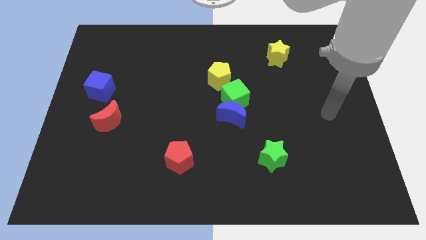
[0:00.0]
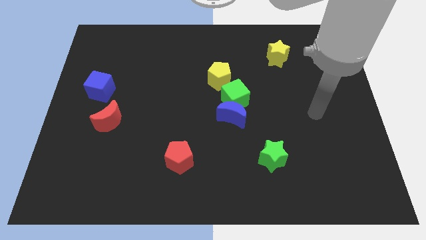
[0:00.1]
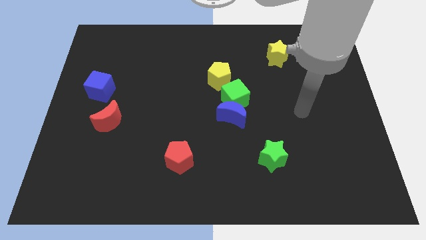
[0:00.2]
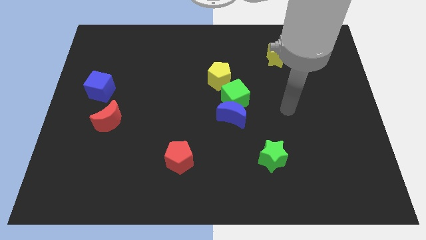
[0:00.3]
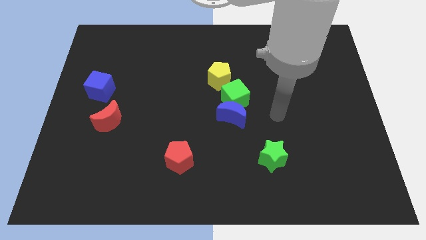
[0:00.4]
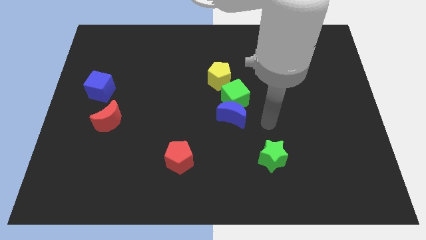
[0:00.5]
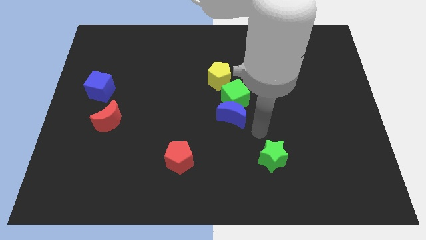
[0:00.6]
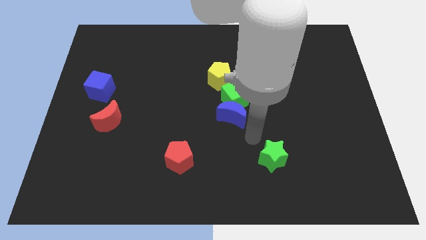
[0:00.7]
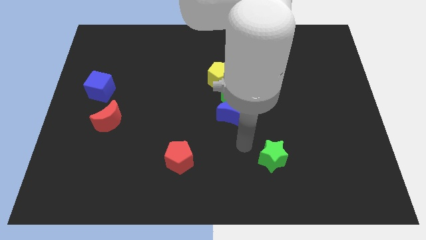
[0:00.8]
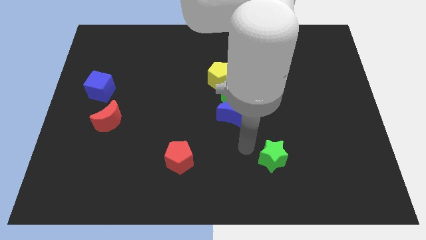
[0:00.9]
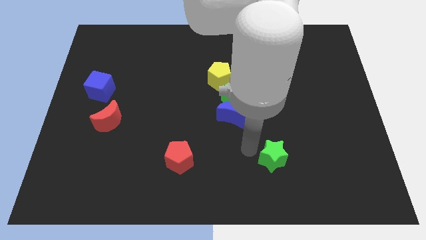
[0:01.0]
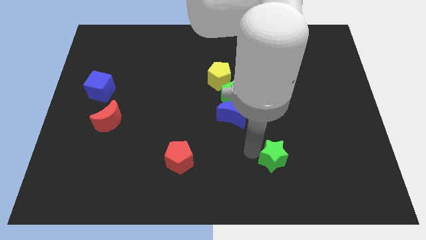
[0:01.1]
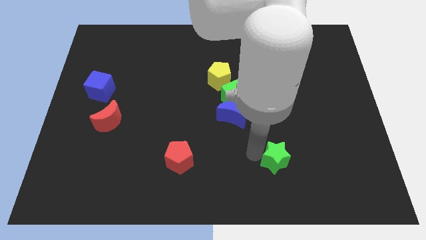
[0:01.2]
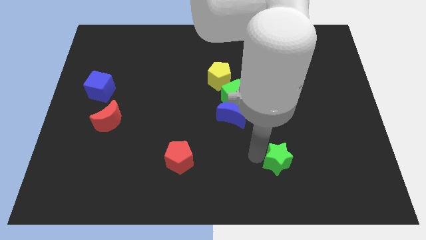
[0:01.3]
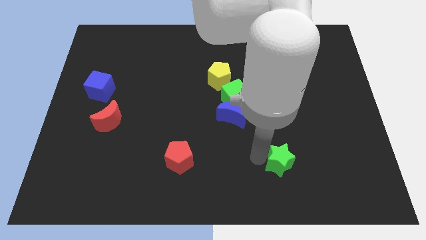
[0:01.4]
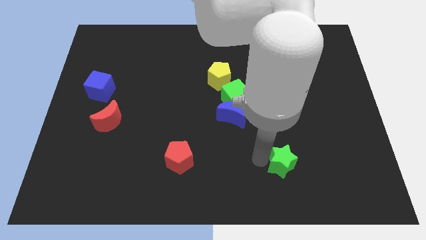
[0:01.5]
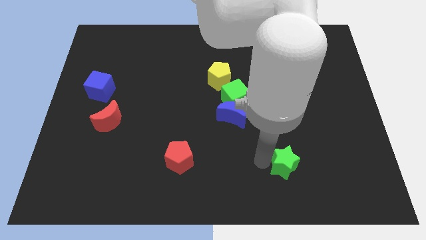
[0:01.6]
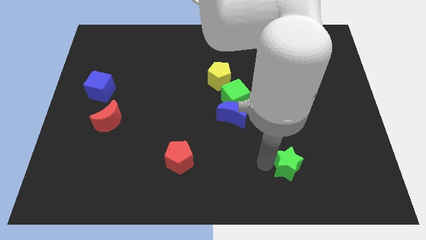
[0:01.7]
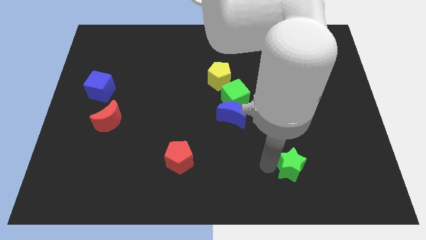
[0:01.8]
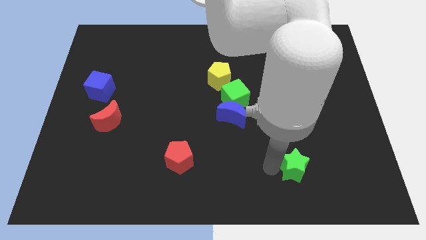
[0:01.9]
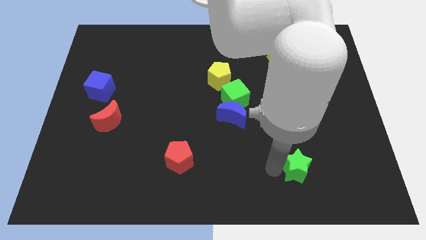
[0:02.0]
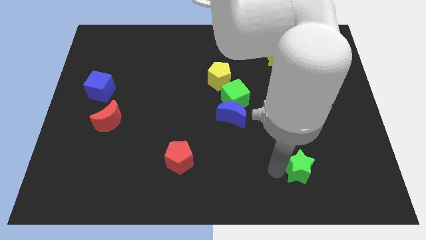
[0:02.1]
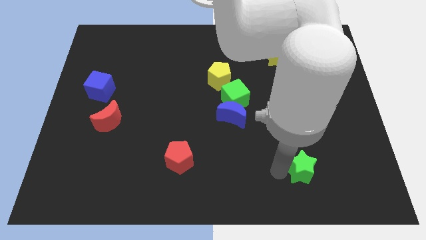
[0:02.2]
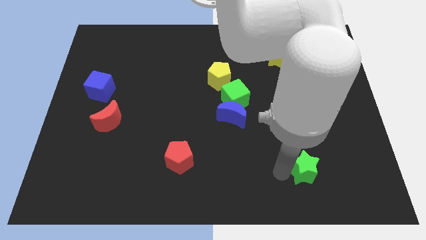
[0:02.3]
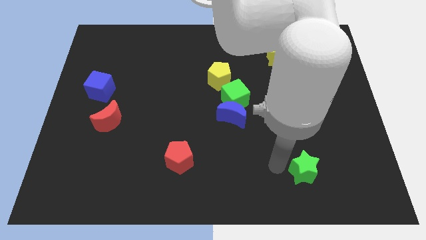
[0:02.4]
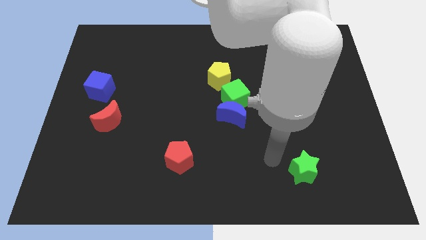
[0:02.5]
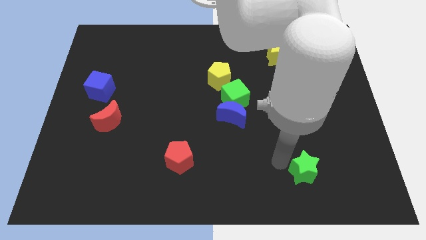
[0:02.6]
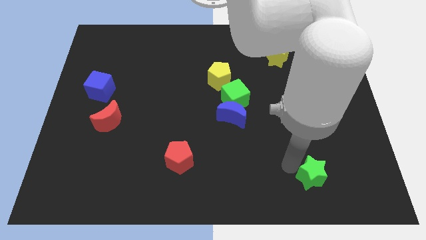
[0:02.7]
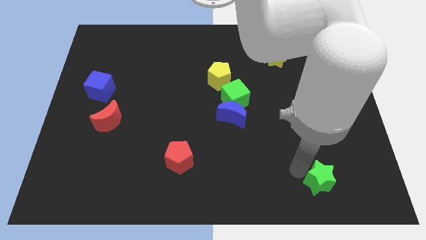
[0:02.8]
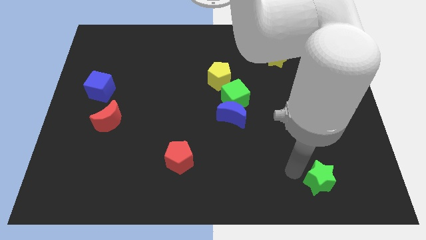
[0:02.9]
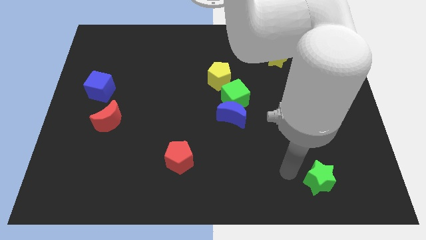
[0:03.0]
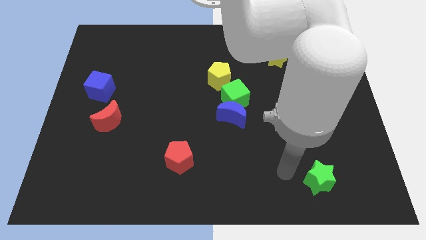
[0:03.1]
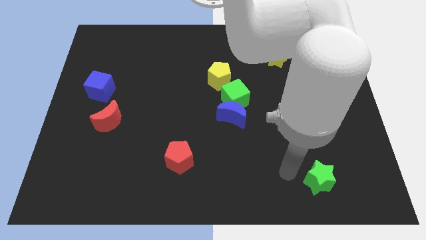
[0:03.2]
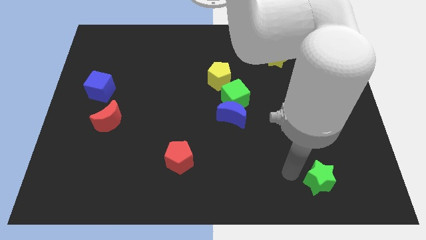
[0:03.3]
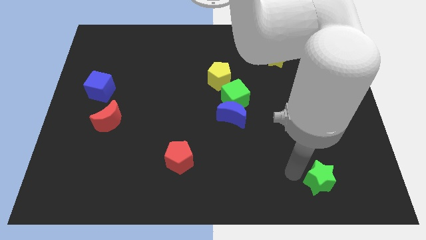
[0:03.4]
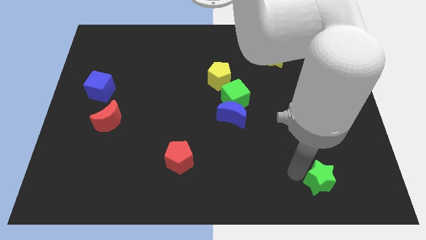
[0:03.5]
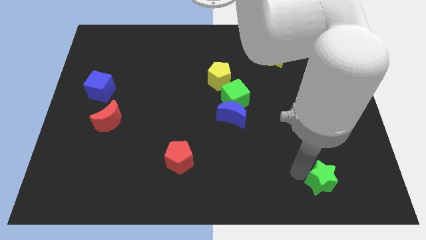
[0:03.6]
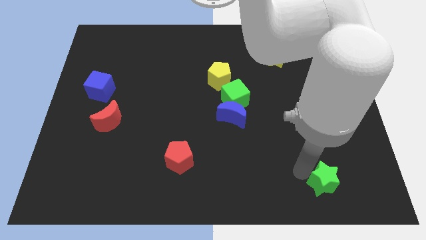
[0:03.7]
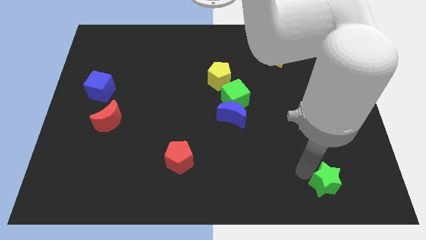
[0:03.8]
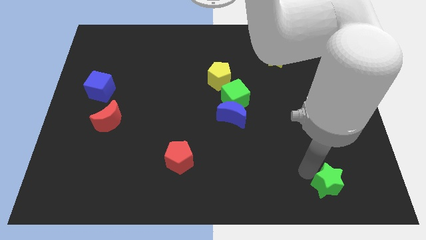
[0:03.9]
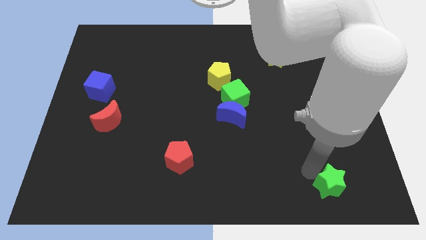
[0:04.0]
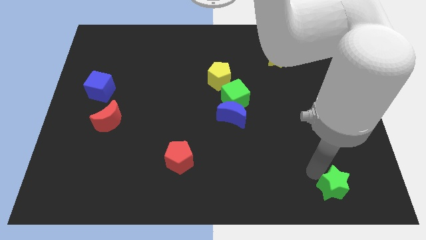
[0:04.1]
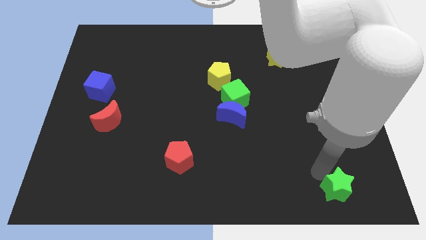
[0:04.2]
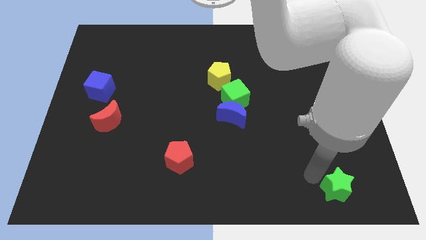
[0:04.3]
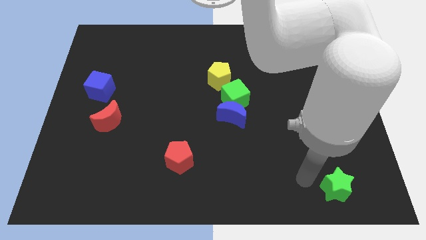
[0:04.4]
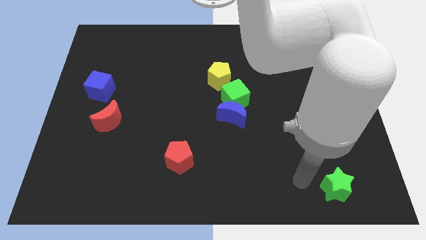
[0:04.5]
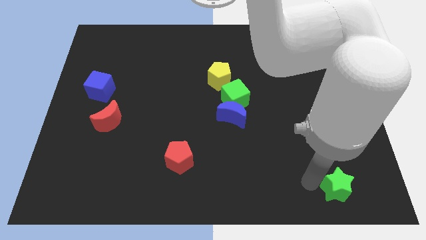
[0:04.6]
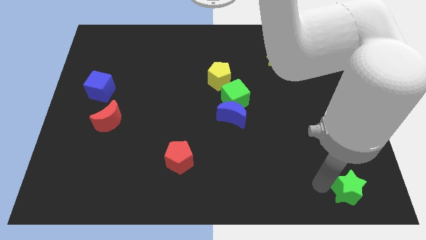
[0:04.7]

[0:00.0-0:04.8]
move the green star to the lower right corner

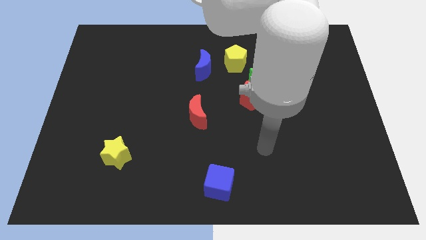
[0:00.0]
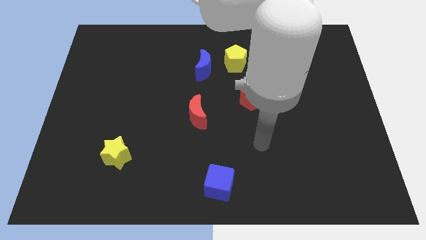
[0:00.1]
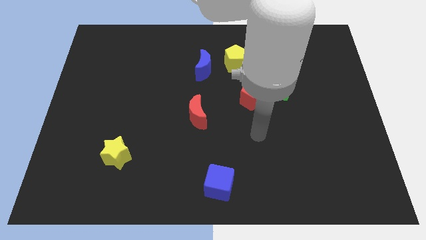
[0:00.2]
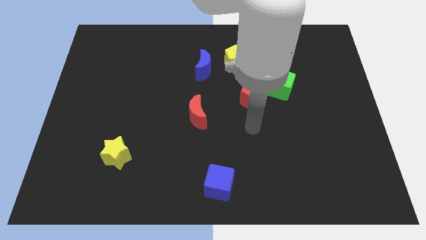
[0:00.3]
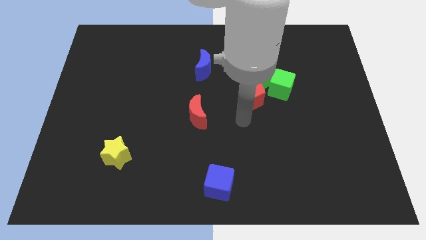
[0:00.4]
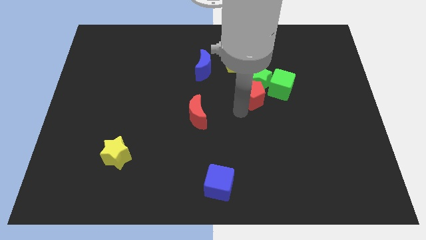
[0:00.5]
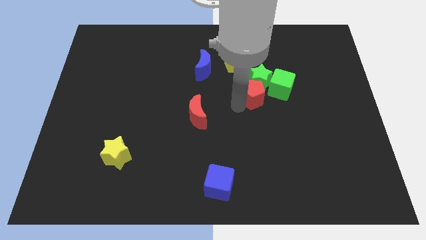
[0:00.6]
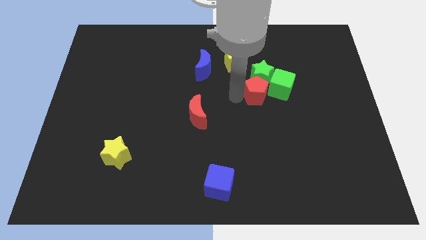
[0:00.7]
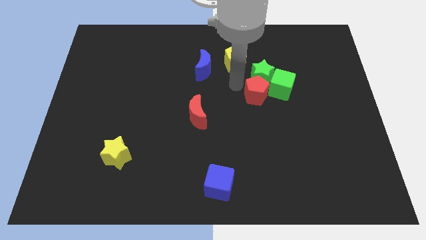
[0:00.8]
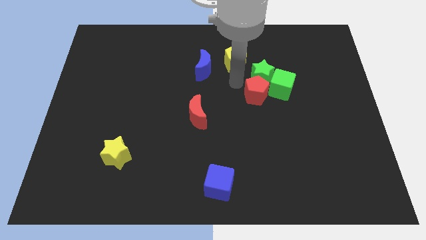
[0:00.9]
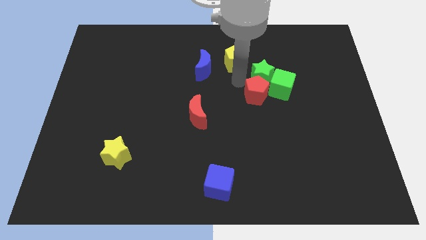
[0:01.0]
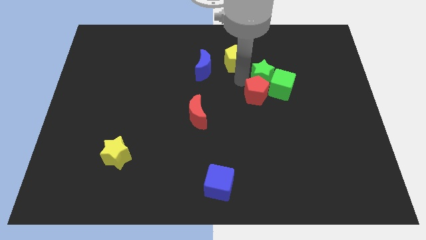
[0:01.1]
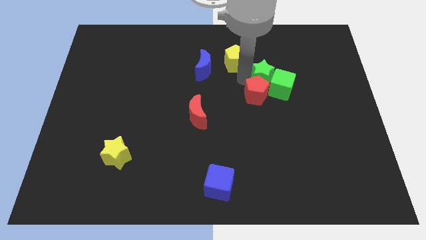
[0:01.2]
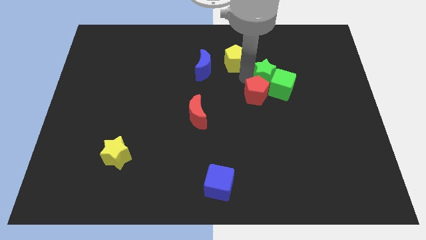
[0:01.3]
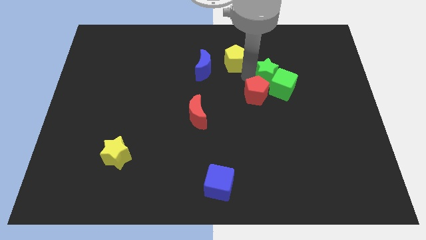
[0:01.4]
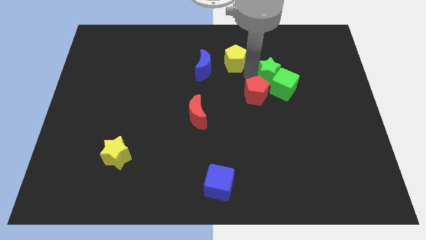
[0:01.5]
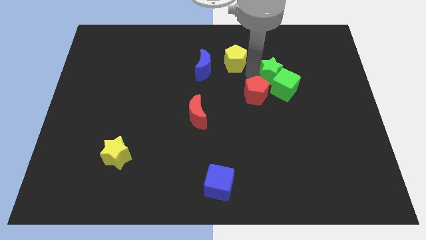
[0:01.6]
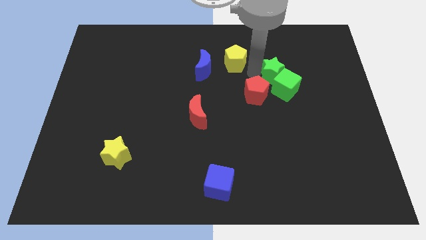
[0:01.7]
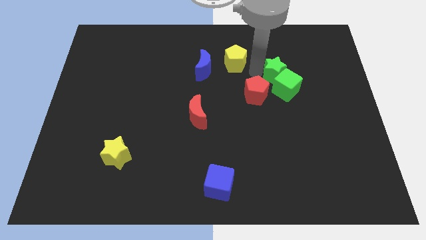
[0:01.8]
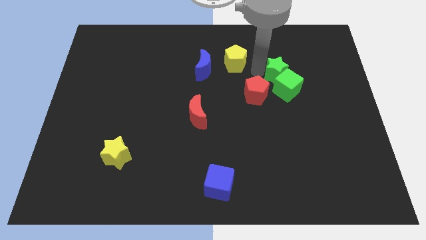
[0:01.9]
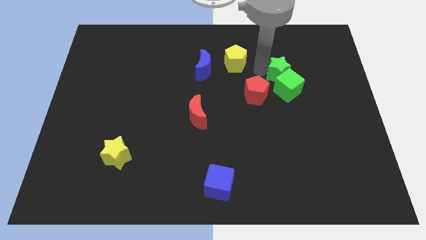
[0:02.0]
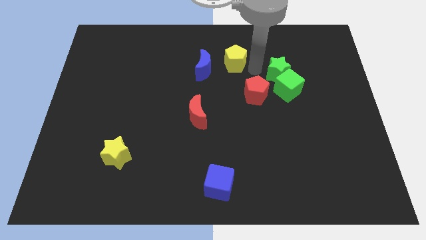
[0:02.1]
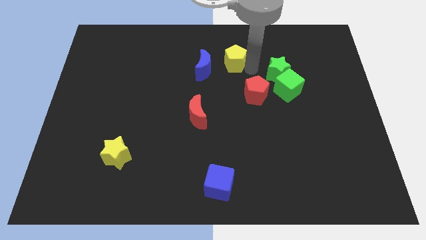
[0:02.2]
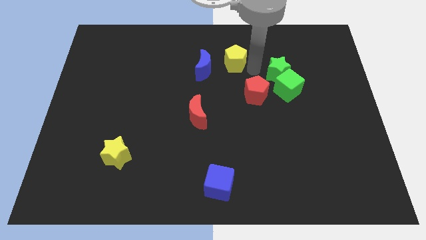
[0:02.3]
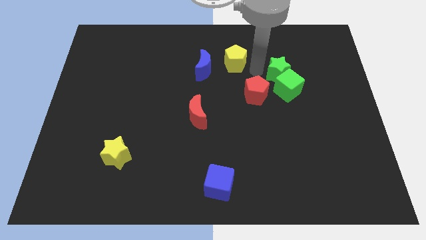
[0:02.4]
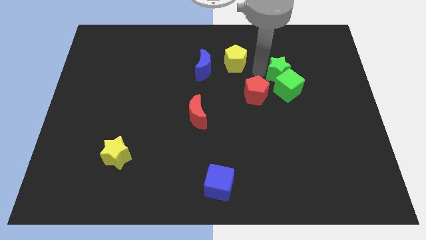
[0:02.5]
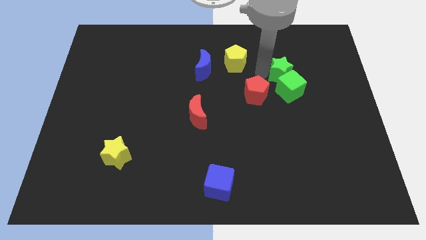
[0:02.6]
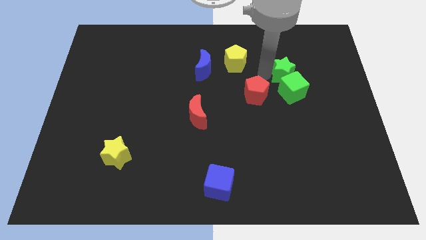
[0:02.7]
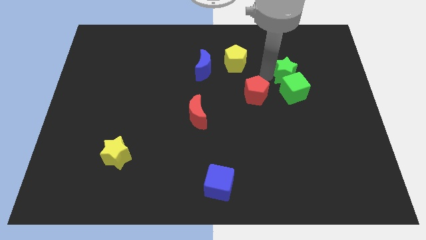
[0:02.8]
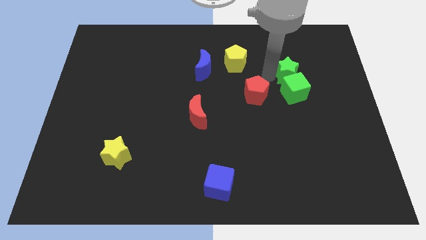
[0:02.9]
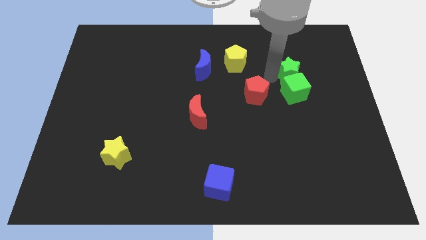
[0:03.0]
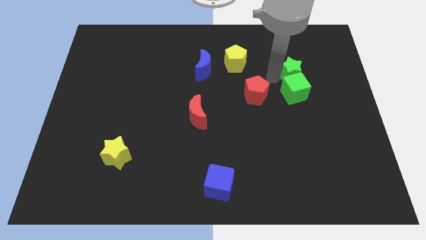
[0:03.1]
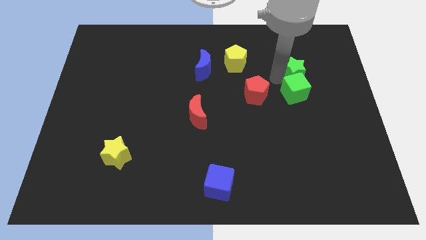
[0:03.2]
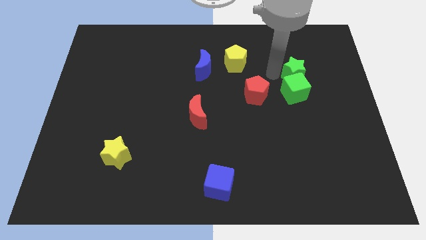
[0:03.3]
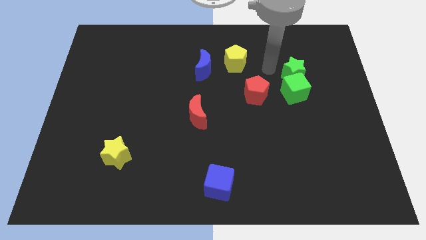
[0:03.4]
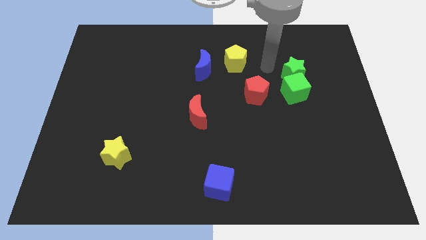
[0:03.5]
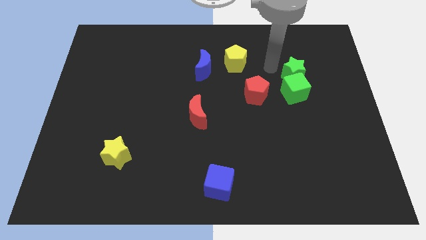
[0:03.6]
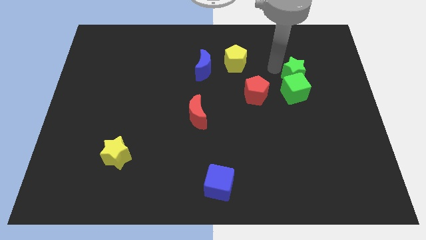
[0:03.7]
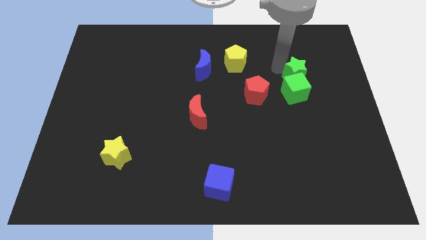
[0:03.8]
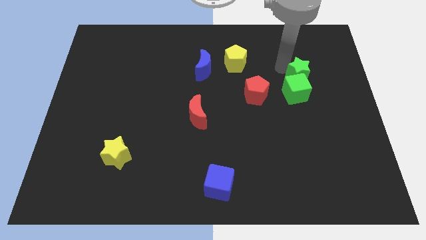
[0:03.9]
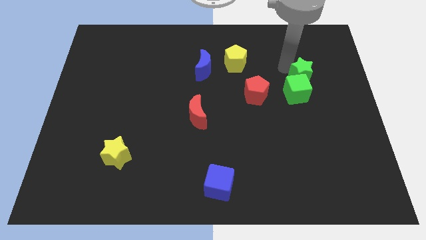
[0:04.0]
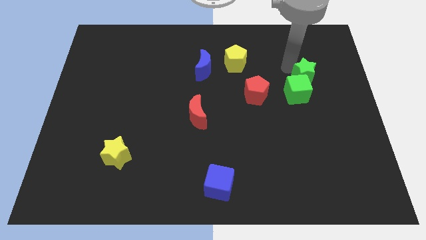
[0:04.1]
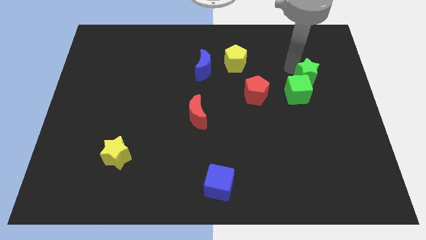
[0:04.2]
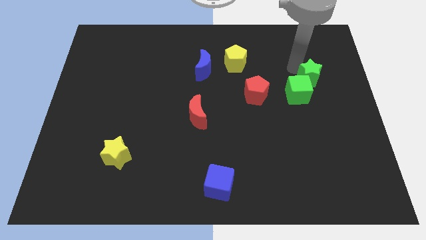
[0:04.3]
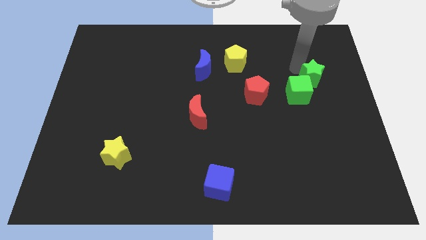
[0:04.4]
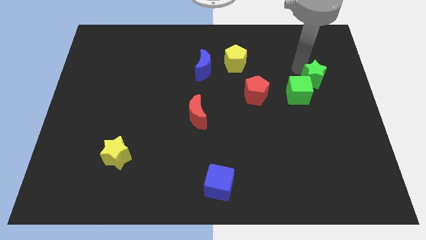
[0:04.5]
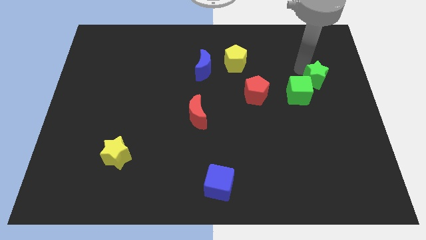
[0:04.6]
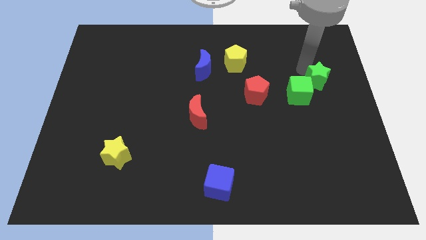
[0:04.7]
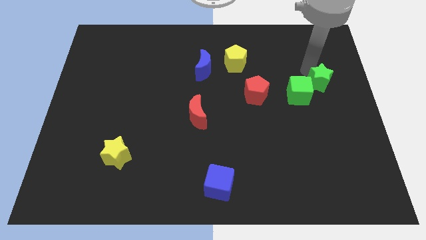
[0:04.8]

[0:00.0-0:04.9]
slide the green star to the center right
